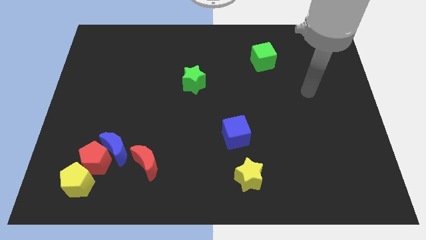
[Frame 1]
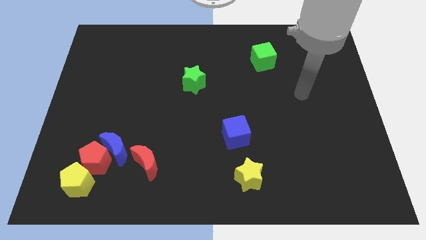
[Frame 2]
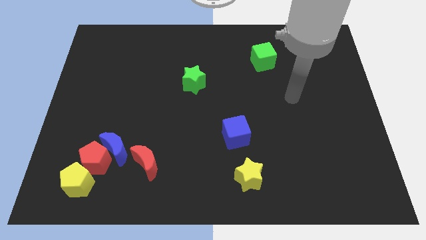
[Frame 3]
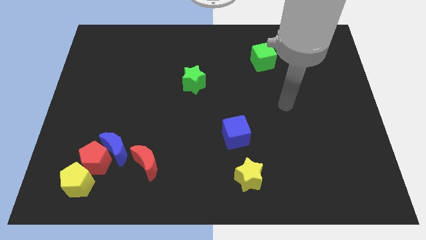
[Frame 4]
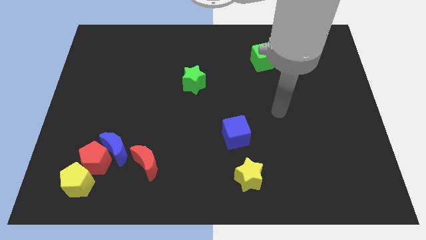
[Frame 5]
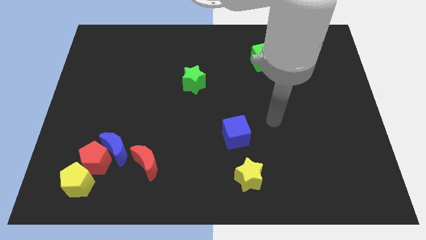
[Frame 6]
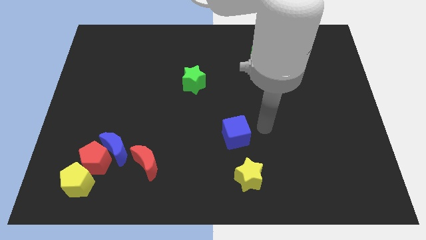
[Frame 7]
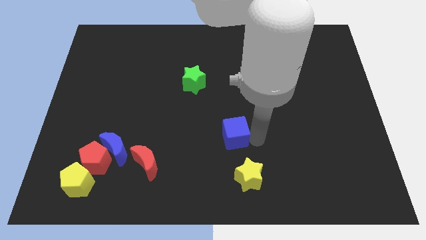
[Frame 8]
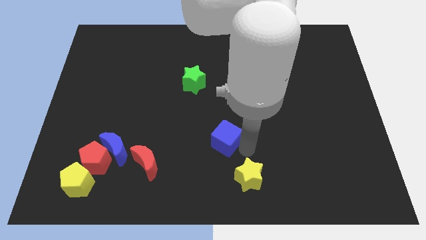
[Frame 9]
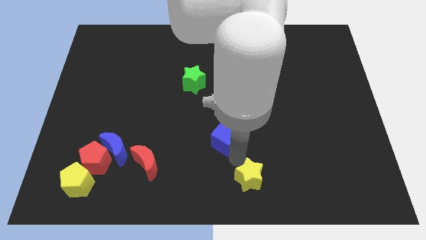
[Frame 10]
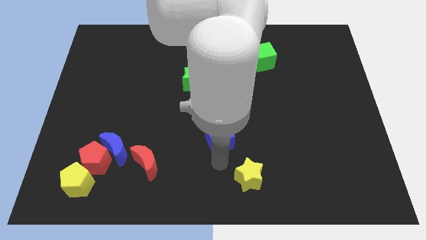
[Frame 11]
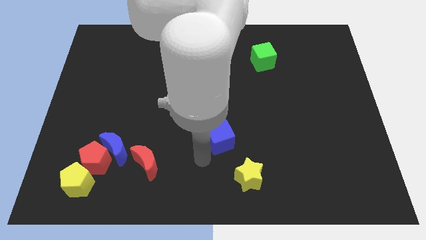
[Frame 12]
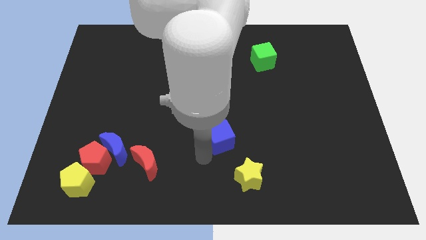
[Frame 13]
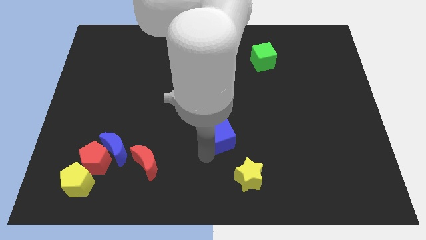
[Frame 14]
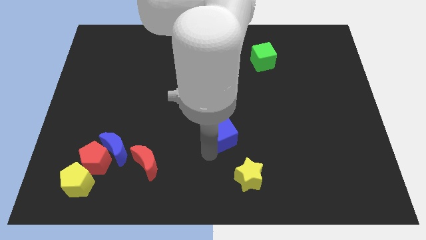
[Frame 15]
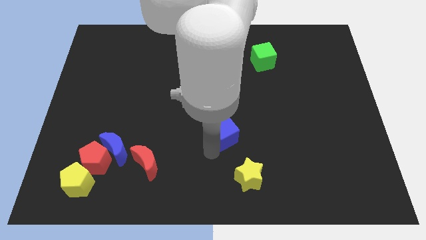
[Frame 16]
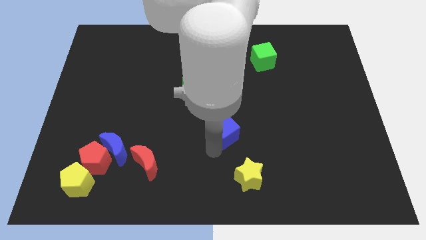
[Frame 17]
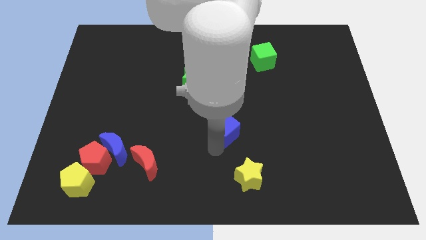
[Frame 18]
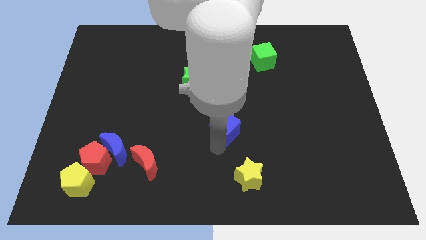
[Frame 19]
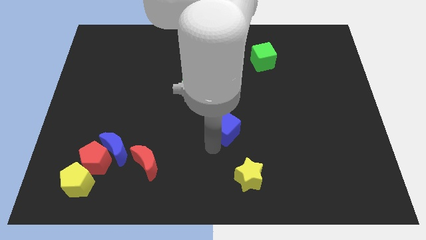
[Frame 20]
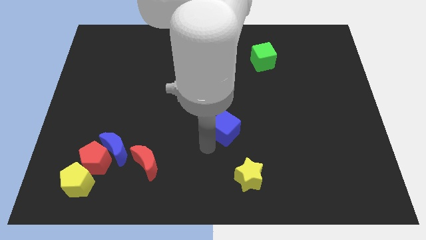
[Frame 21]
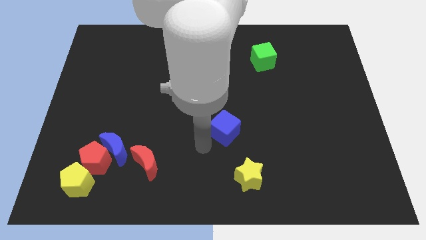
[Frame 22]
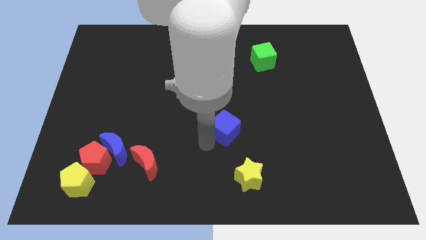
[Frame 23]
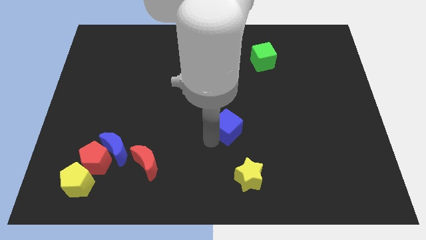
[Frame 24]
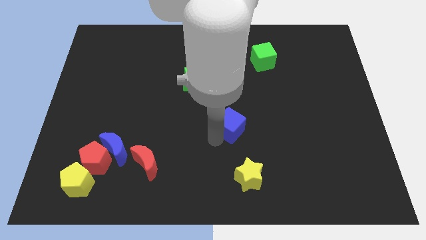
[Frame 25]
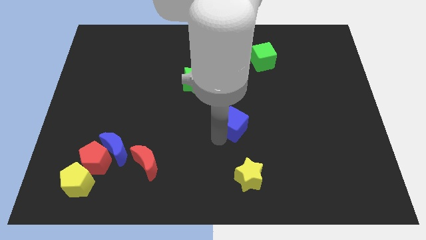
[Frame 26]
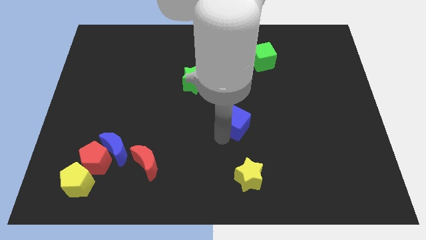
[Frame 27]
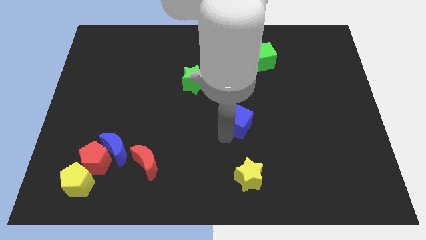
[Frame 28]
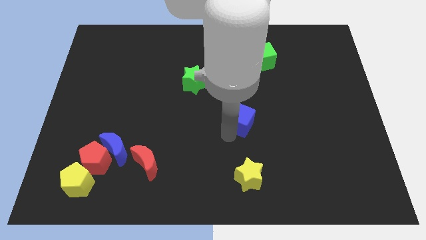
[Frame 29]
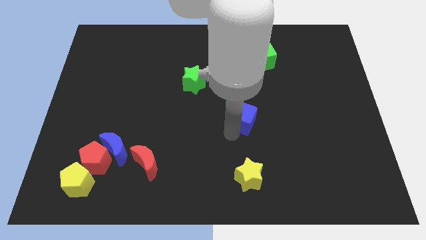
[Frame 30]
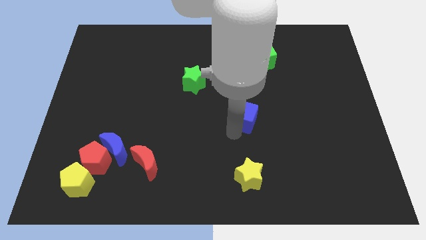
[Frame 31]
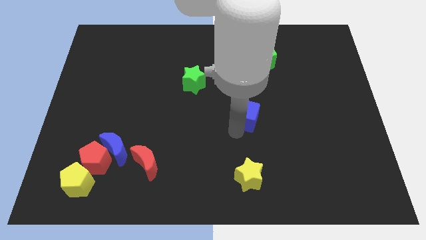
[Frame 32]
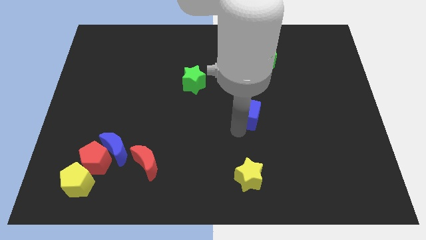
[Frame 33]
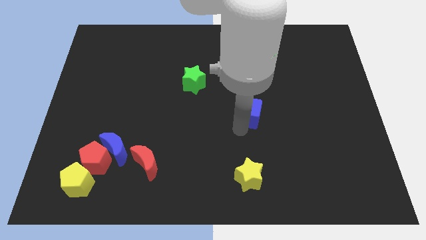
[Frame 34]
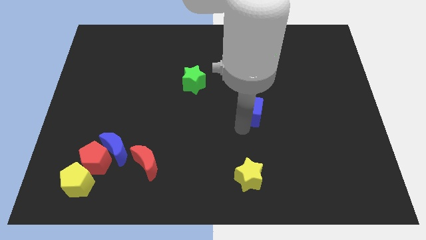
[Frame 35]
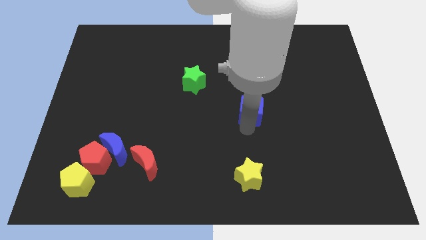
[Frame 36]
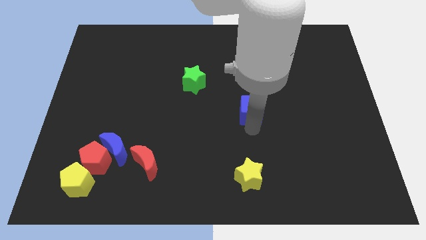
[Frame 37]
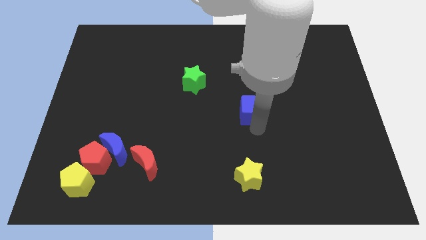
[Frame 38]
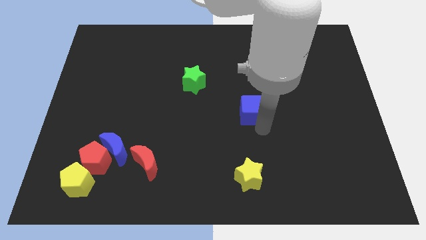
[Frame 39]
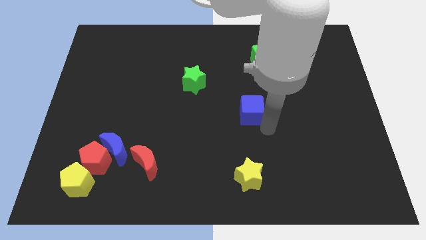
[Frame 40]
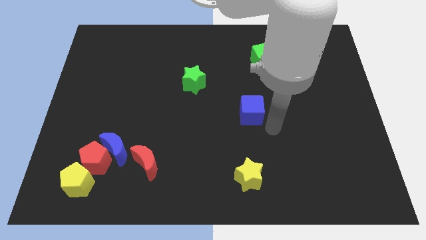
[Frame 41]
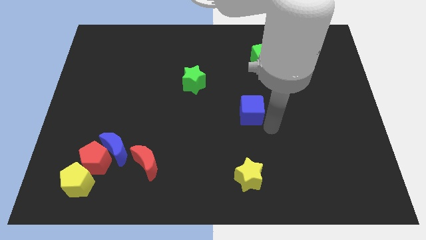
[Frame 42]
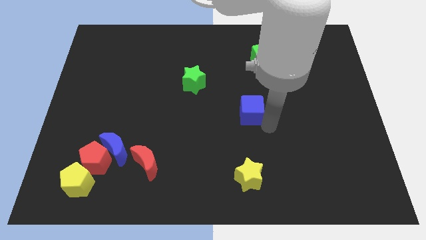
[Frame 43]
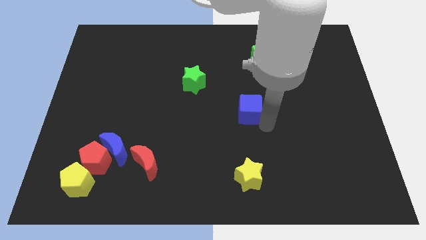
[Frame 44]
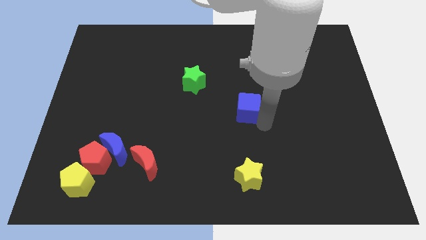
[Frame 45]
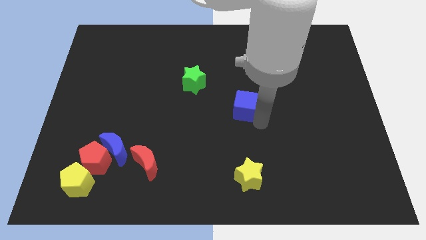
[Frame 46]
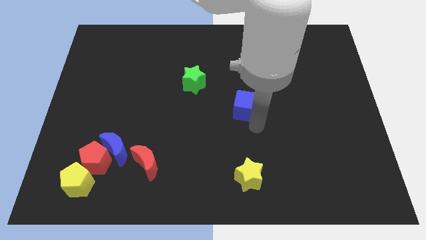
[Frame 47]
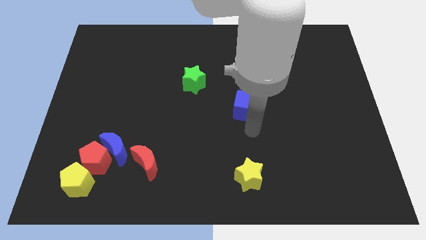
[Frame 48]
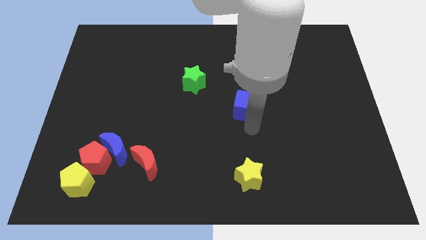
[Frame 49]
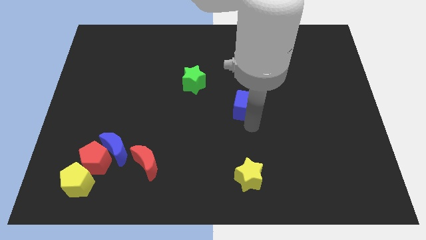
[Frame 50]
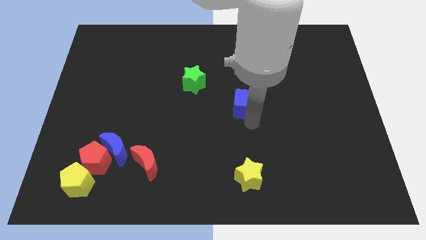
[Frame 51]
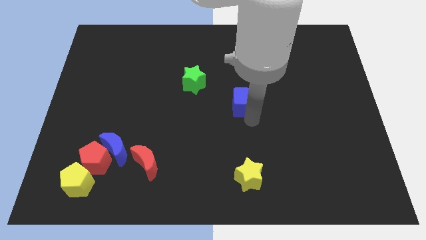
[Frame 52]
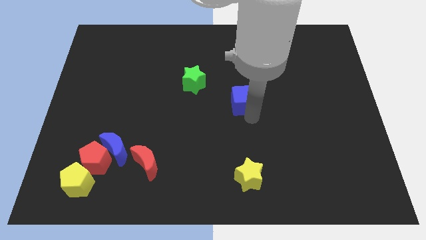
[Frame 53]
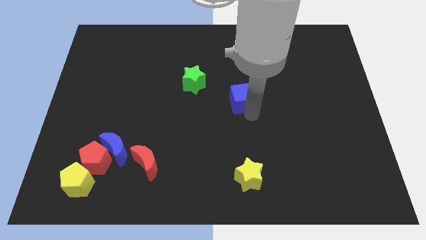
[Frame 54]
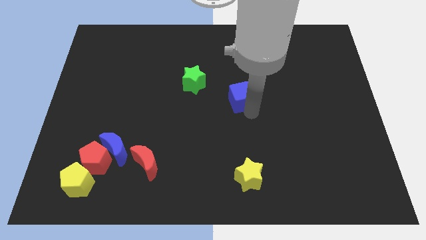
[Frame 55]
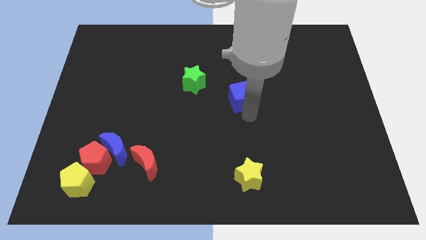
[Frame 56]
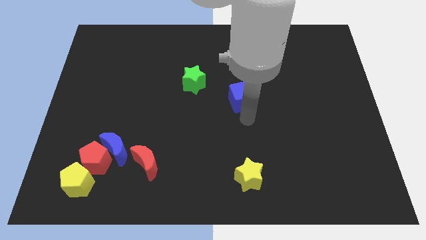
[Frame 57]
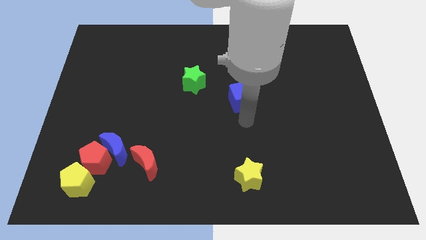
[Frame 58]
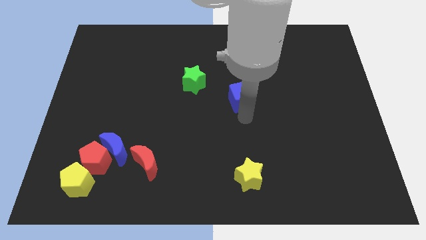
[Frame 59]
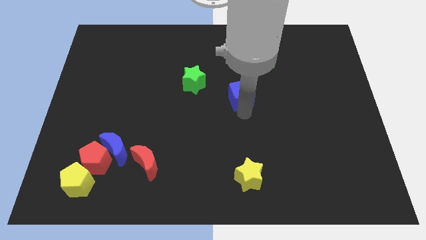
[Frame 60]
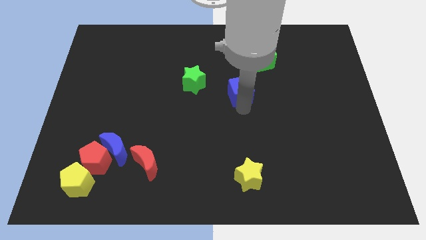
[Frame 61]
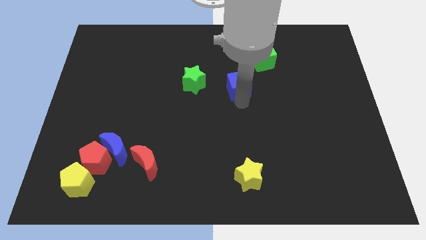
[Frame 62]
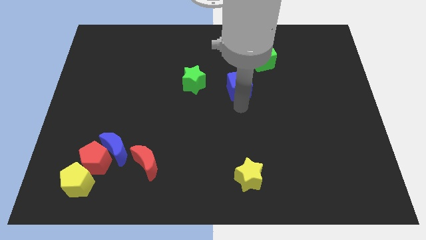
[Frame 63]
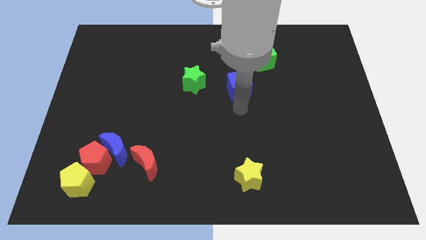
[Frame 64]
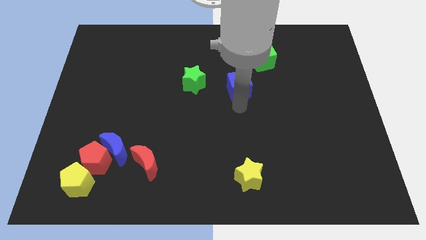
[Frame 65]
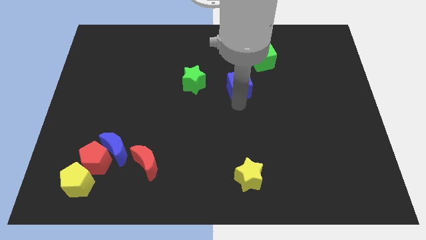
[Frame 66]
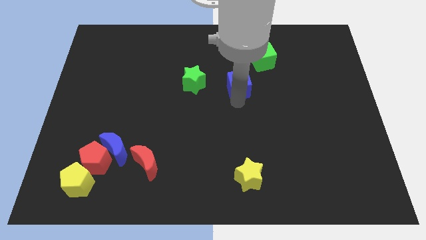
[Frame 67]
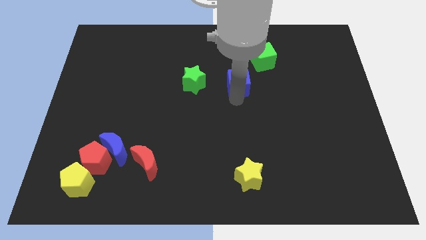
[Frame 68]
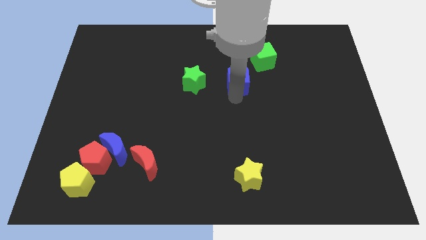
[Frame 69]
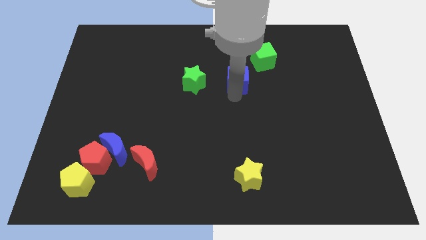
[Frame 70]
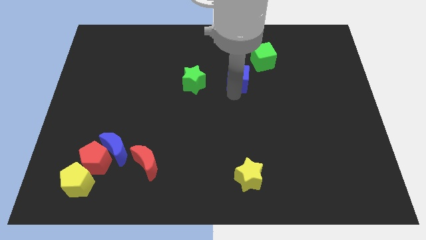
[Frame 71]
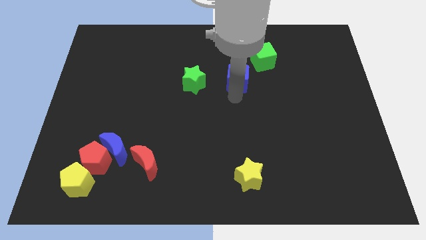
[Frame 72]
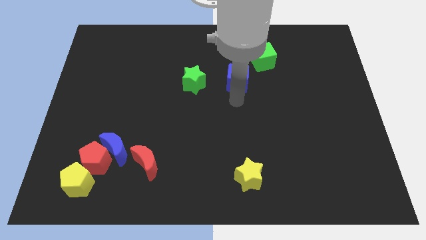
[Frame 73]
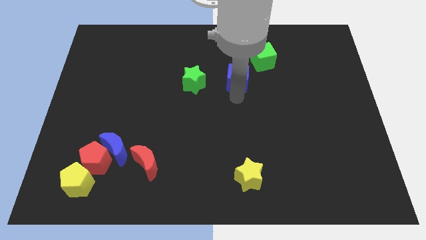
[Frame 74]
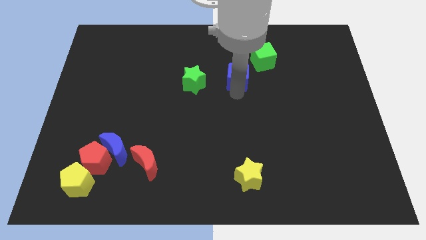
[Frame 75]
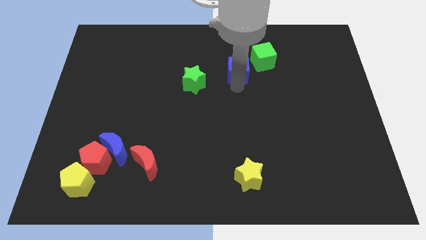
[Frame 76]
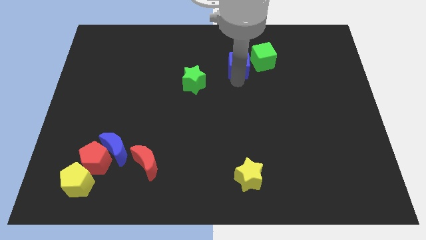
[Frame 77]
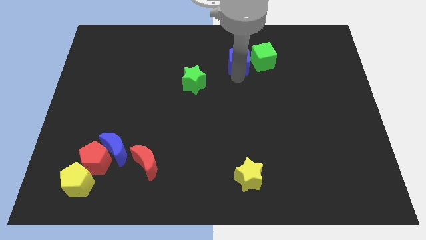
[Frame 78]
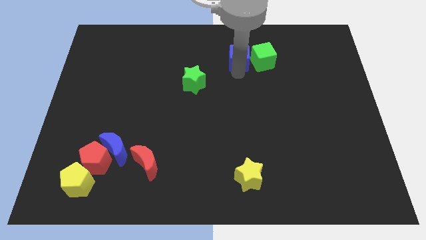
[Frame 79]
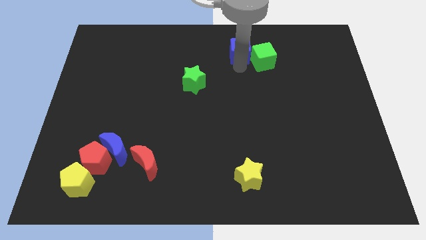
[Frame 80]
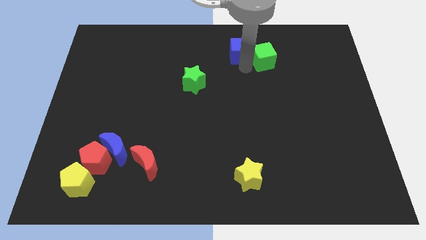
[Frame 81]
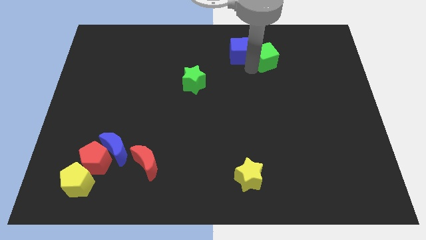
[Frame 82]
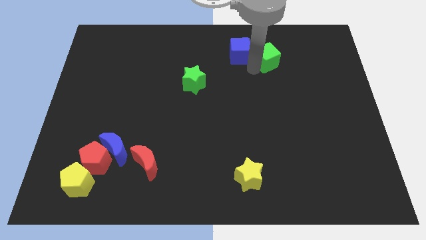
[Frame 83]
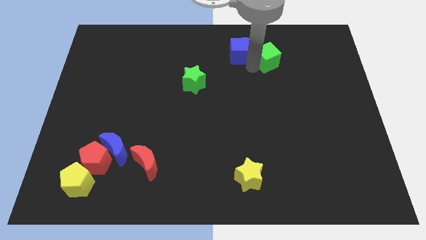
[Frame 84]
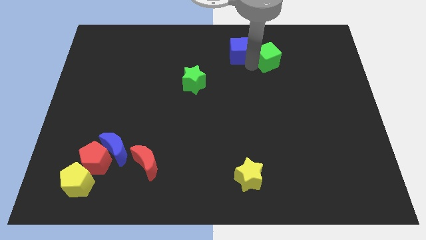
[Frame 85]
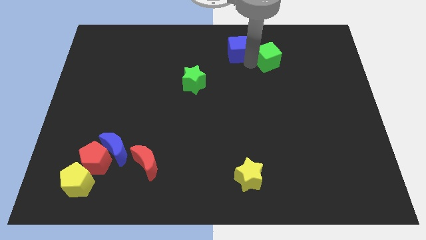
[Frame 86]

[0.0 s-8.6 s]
slide the blue cube to the towards your base
